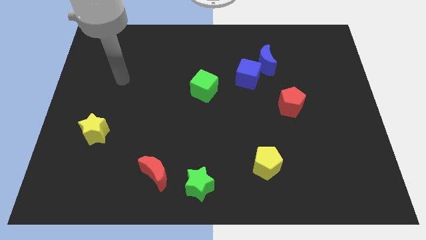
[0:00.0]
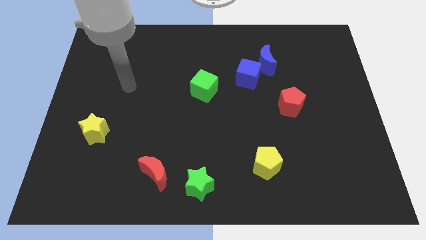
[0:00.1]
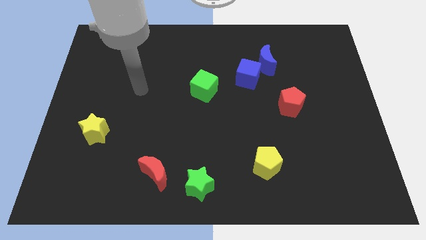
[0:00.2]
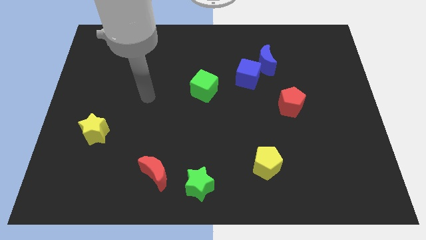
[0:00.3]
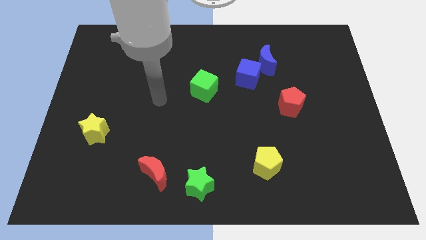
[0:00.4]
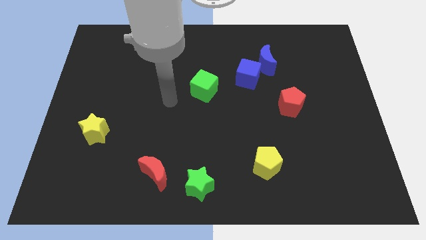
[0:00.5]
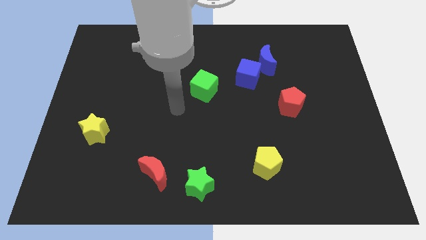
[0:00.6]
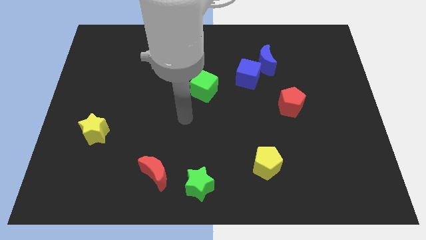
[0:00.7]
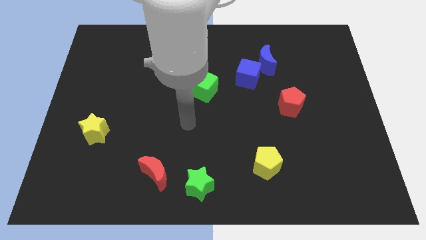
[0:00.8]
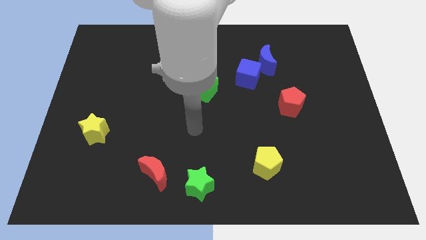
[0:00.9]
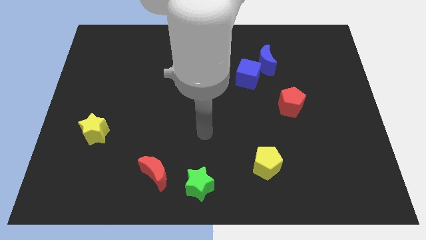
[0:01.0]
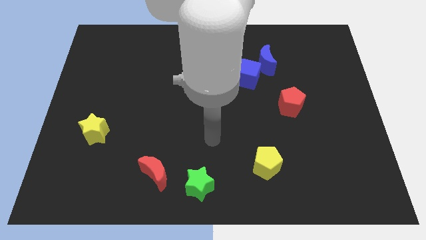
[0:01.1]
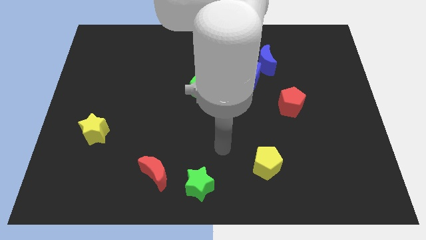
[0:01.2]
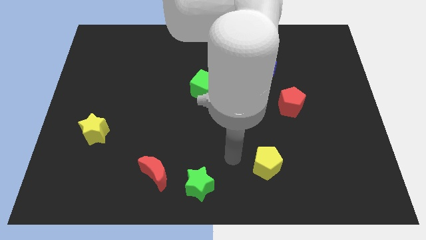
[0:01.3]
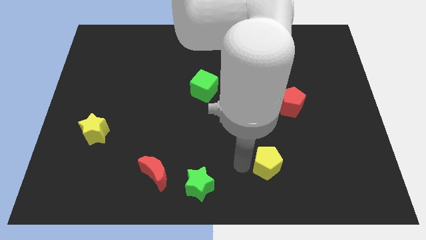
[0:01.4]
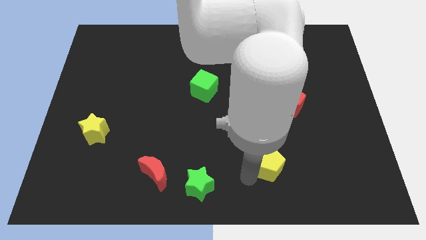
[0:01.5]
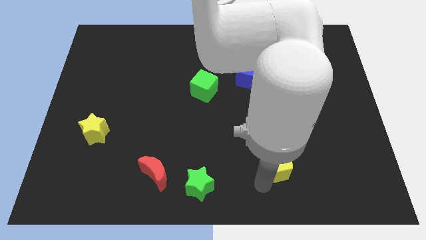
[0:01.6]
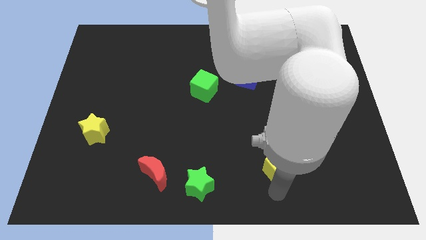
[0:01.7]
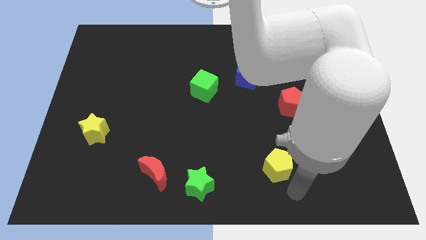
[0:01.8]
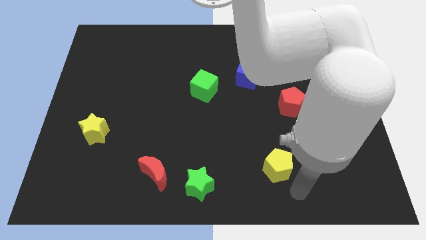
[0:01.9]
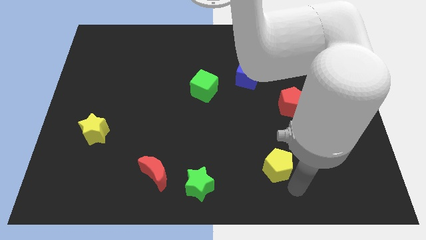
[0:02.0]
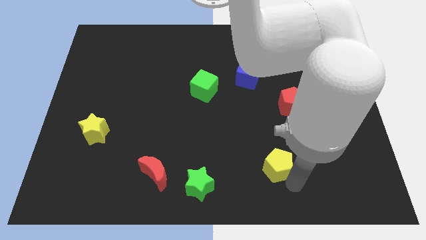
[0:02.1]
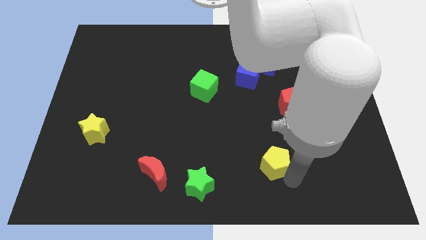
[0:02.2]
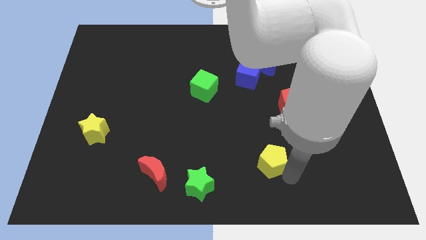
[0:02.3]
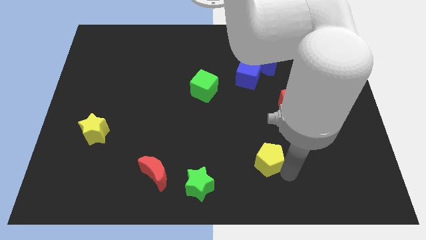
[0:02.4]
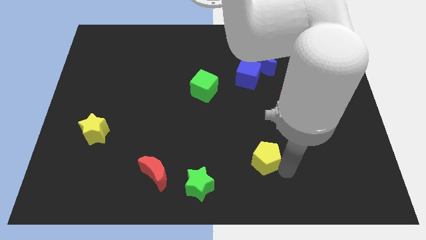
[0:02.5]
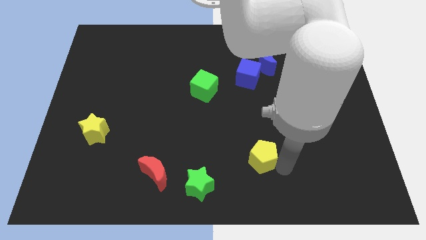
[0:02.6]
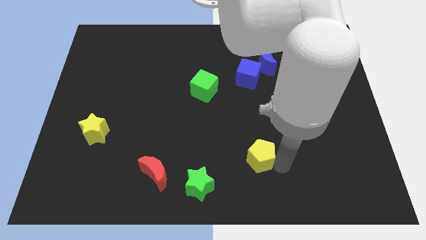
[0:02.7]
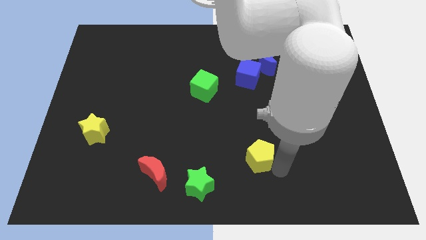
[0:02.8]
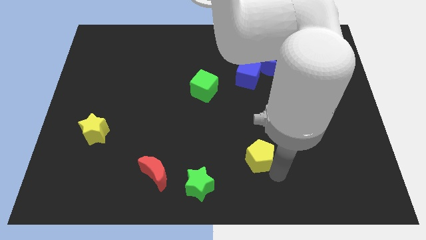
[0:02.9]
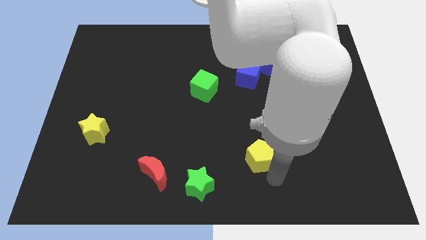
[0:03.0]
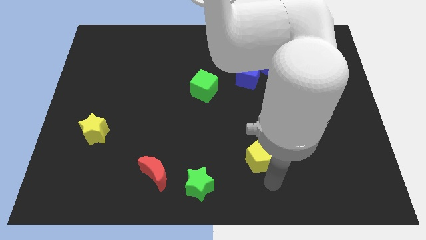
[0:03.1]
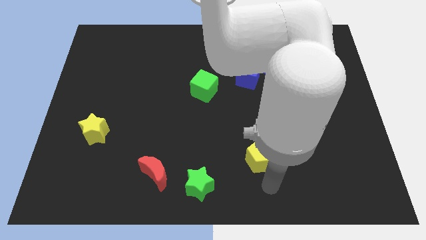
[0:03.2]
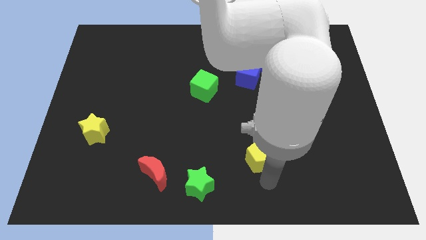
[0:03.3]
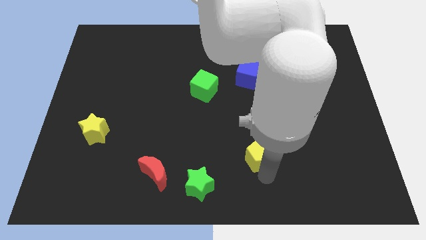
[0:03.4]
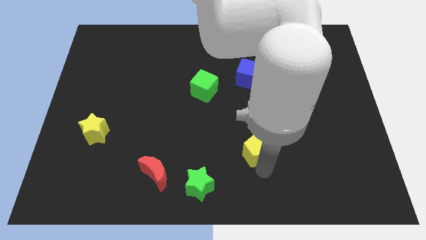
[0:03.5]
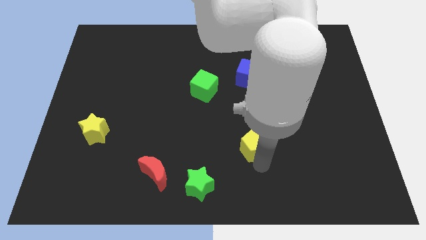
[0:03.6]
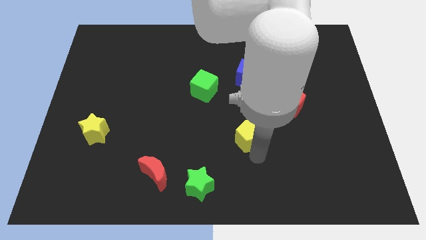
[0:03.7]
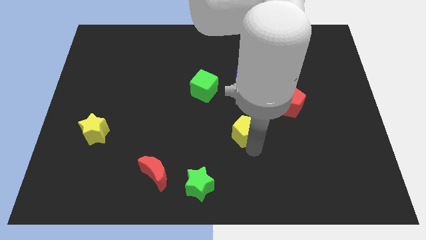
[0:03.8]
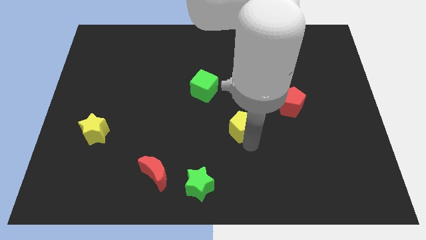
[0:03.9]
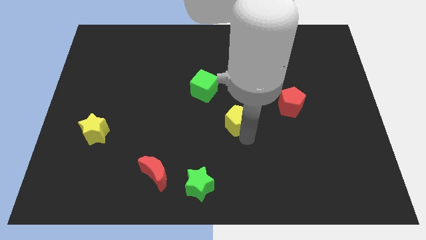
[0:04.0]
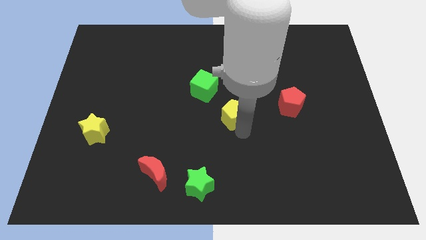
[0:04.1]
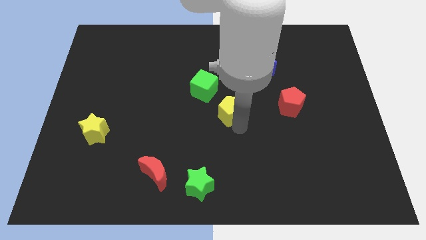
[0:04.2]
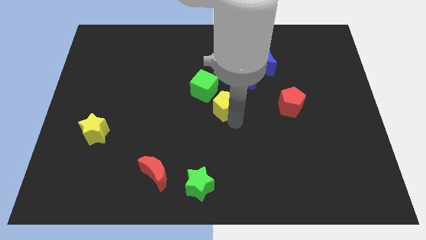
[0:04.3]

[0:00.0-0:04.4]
push the yellow pentagon diagonally down and to the left of the blue cube

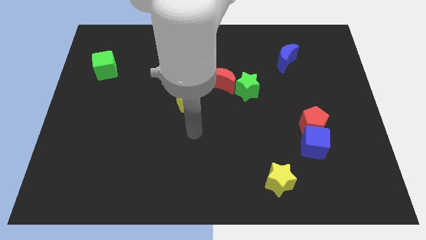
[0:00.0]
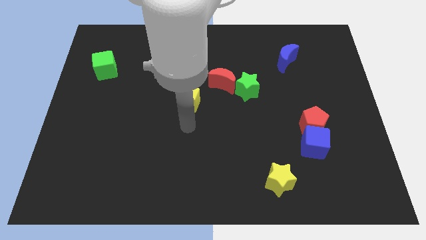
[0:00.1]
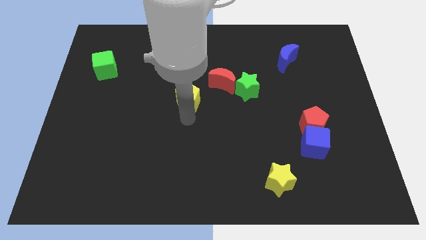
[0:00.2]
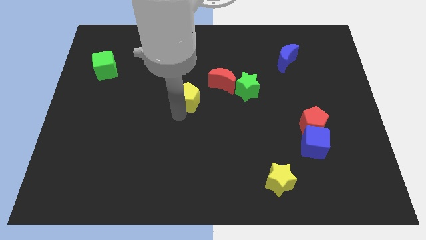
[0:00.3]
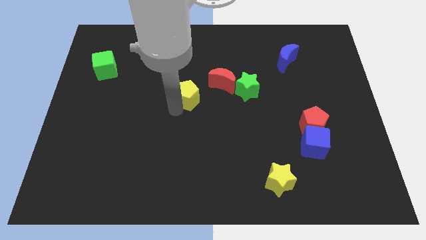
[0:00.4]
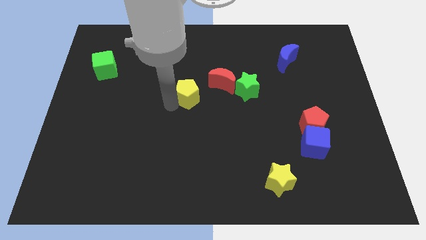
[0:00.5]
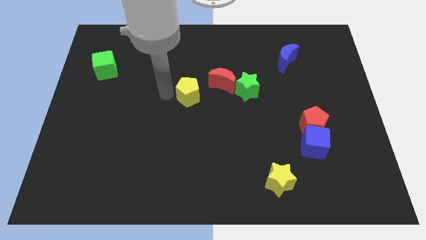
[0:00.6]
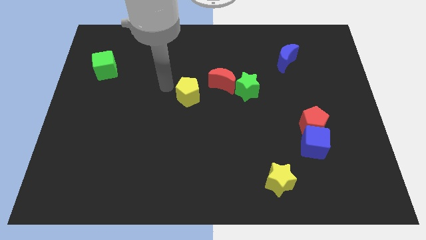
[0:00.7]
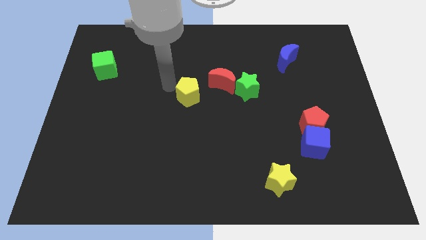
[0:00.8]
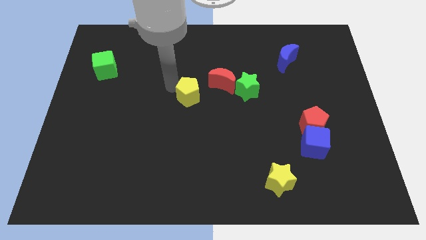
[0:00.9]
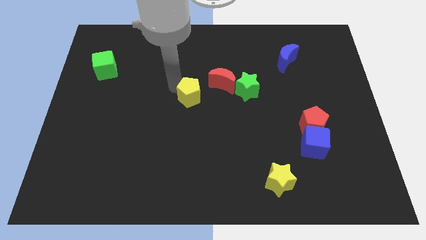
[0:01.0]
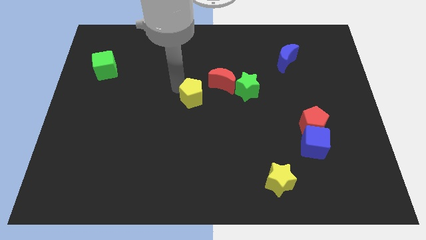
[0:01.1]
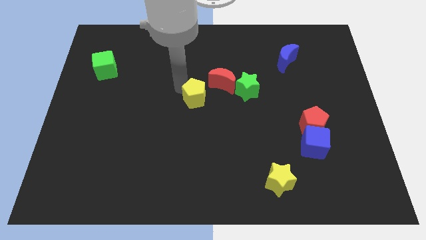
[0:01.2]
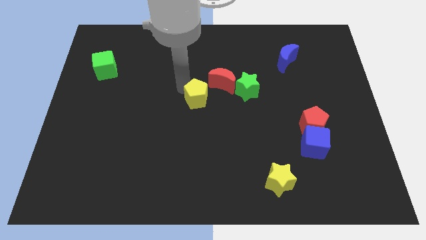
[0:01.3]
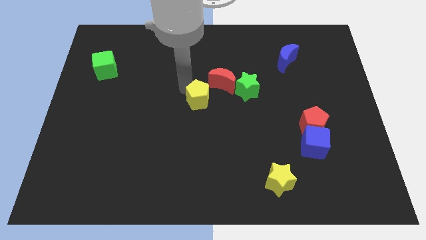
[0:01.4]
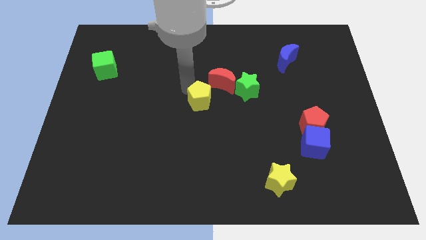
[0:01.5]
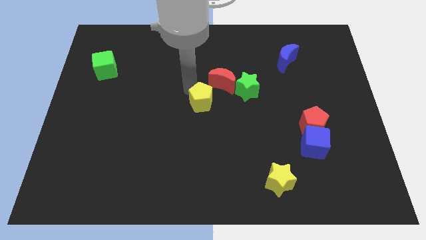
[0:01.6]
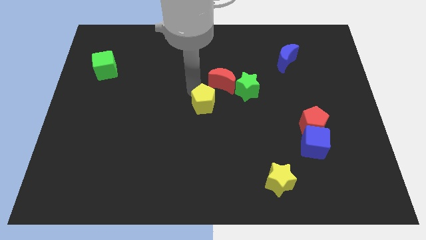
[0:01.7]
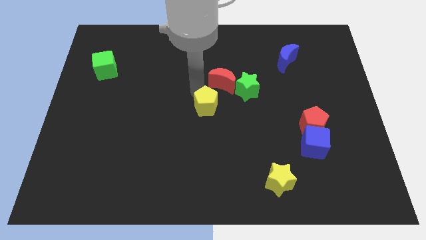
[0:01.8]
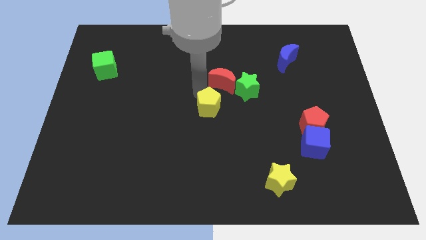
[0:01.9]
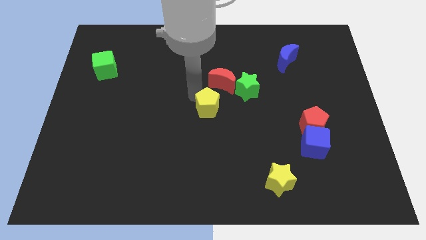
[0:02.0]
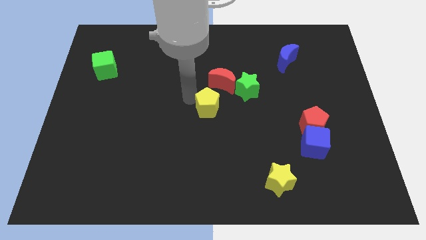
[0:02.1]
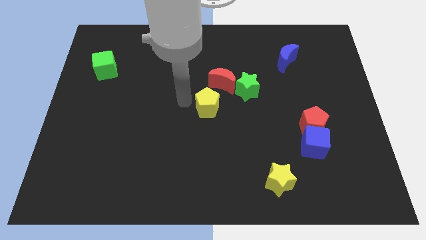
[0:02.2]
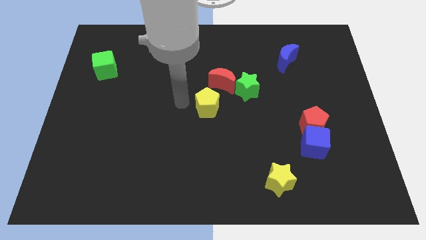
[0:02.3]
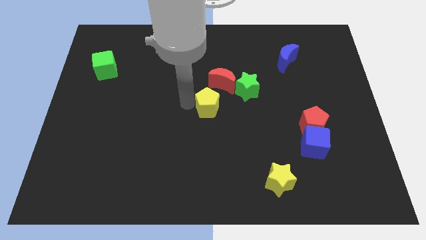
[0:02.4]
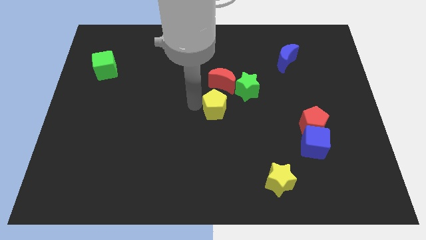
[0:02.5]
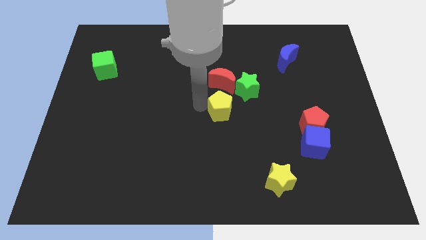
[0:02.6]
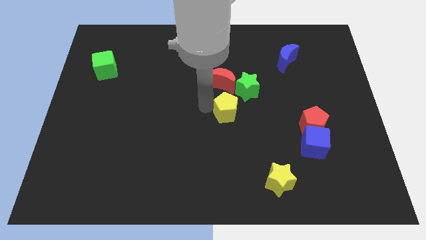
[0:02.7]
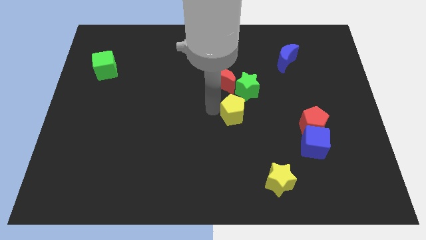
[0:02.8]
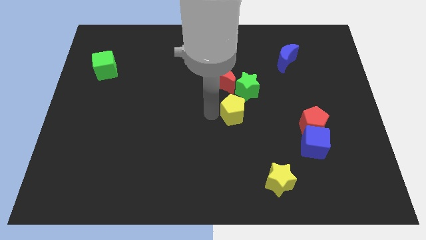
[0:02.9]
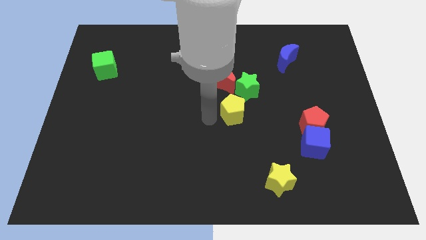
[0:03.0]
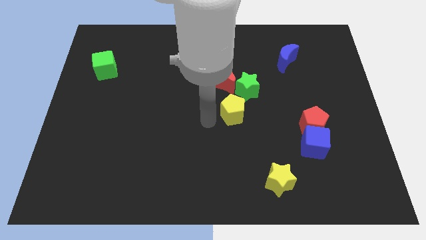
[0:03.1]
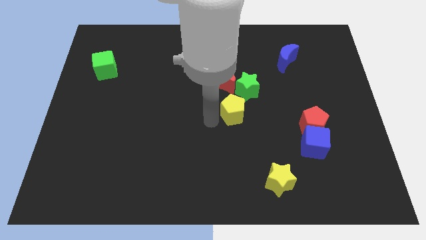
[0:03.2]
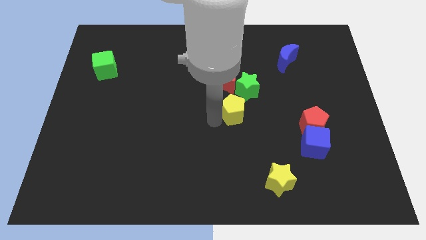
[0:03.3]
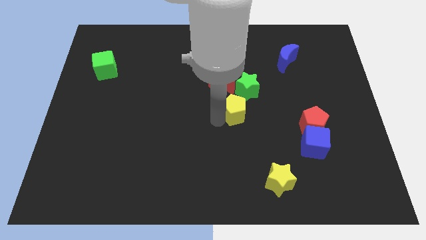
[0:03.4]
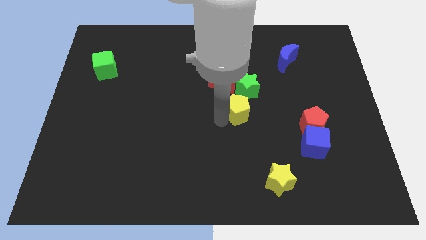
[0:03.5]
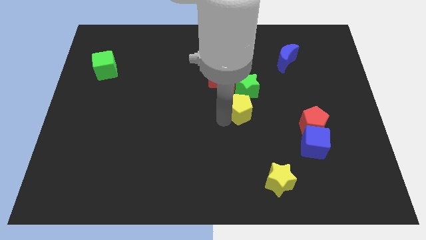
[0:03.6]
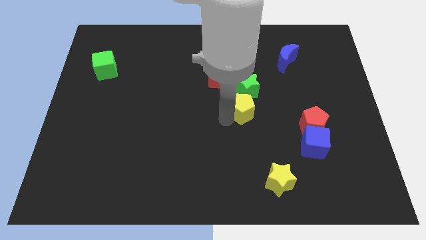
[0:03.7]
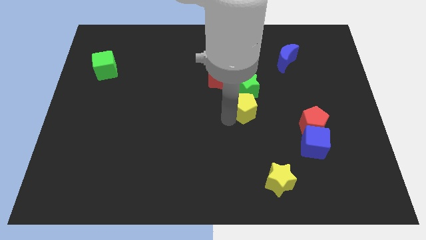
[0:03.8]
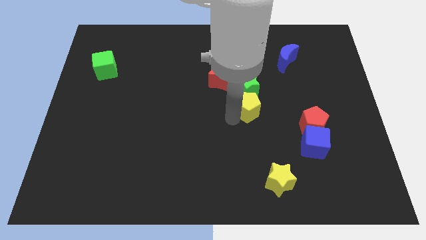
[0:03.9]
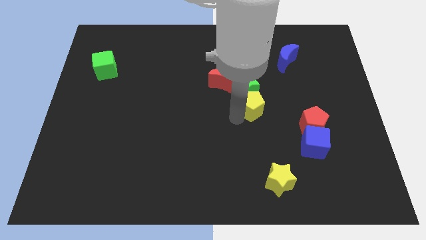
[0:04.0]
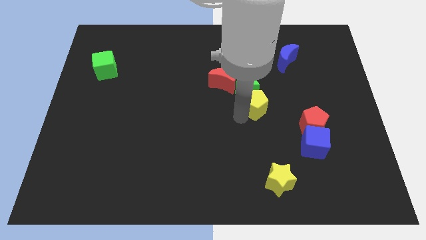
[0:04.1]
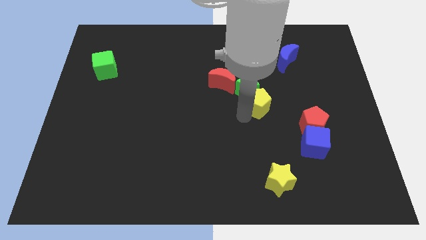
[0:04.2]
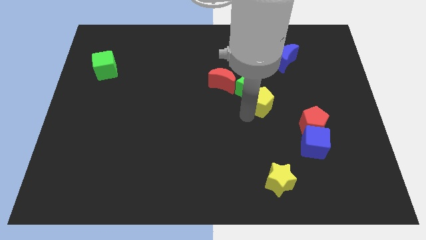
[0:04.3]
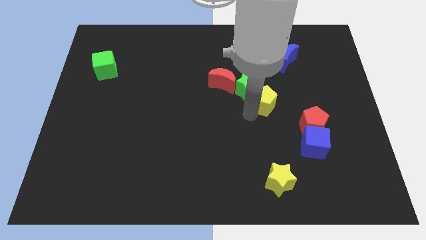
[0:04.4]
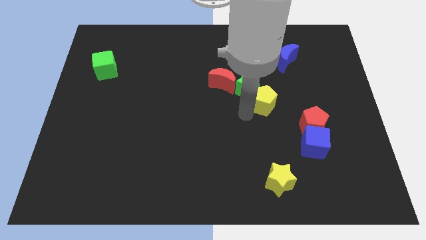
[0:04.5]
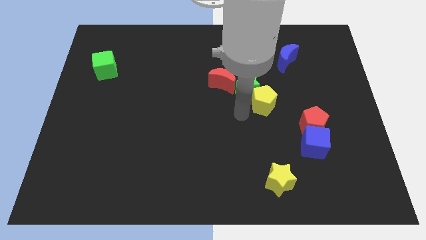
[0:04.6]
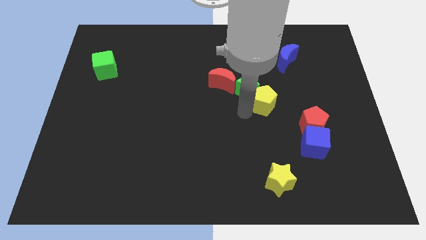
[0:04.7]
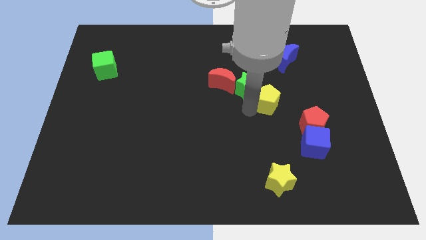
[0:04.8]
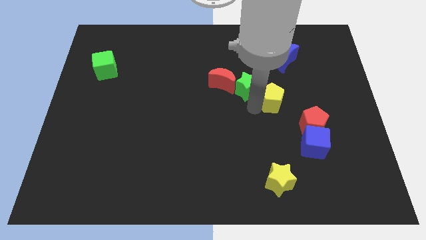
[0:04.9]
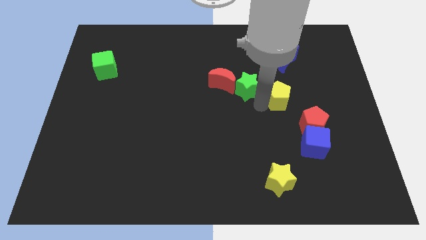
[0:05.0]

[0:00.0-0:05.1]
slide the yellow pentagon to the bottom of the blue moon
